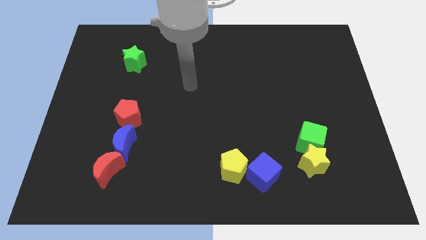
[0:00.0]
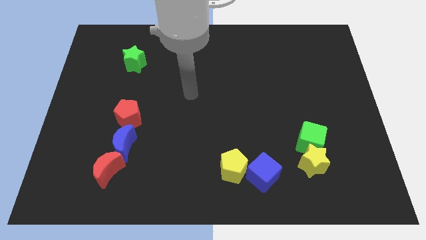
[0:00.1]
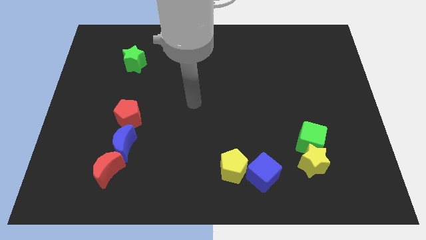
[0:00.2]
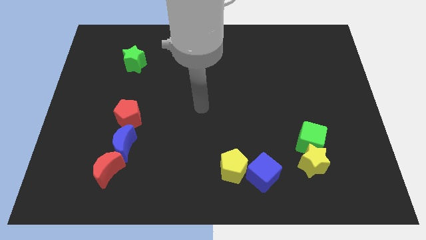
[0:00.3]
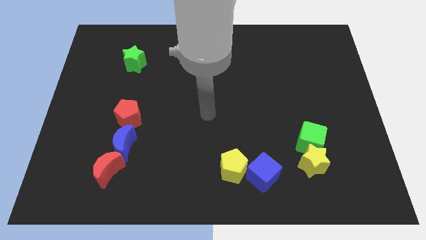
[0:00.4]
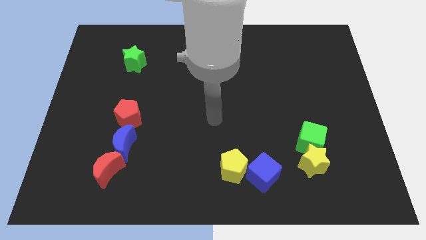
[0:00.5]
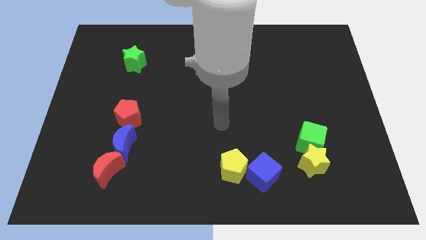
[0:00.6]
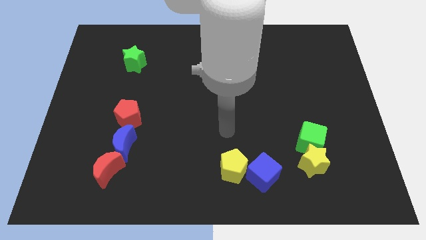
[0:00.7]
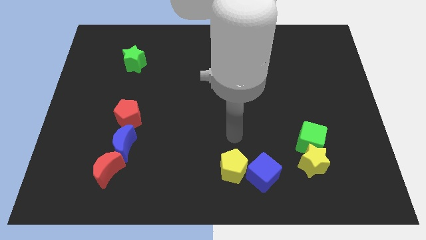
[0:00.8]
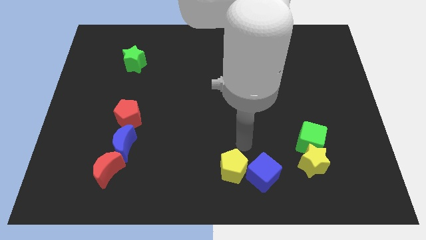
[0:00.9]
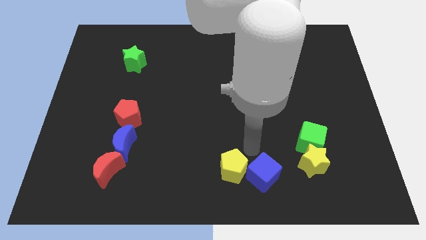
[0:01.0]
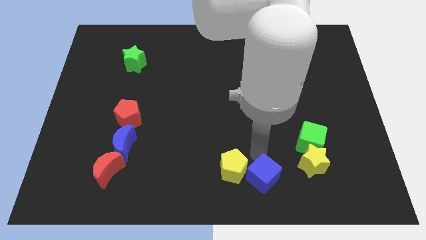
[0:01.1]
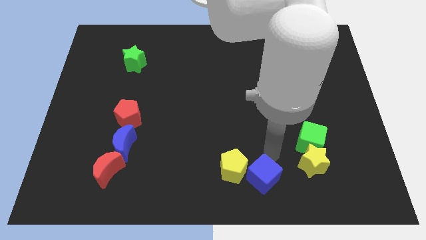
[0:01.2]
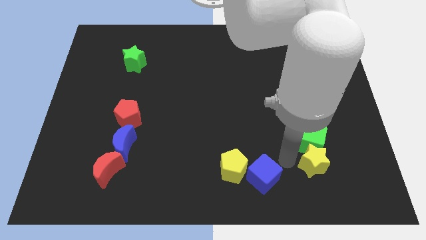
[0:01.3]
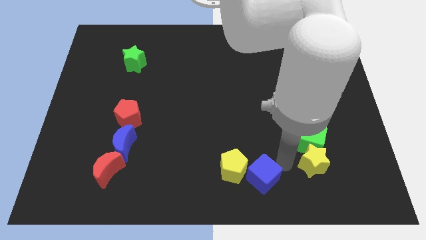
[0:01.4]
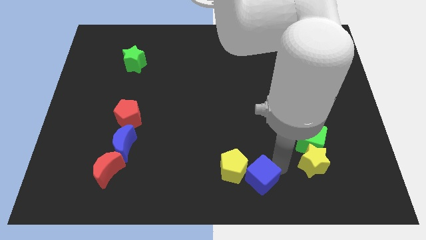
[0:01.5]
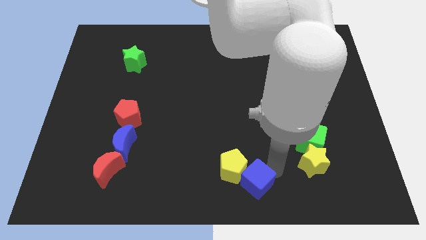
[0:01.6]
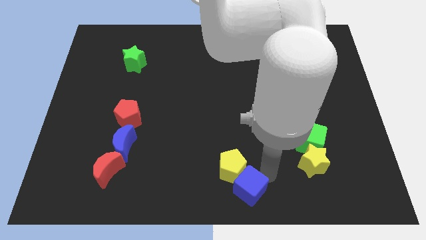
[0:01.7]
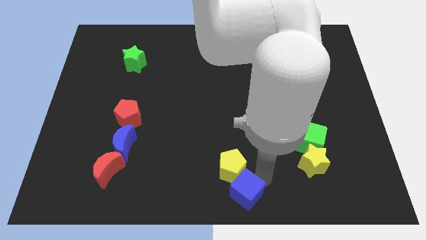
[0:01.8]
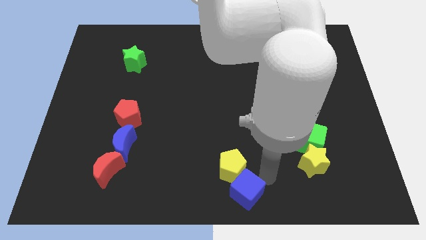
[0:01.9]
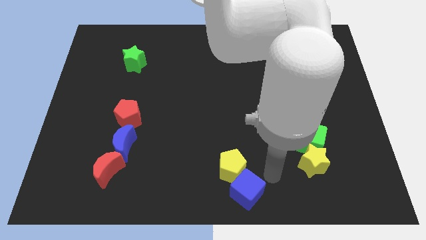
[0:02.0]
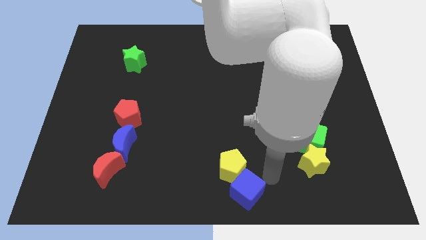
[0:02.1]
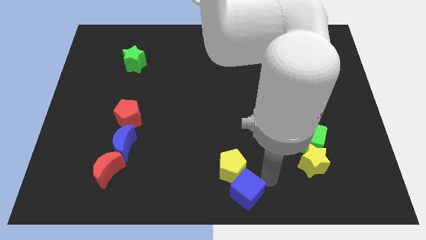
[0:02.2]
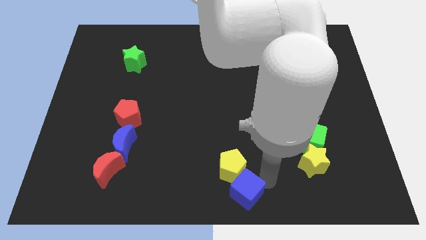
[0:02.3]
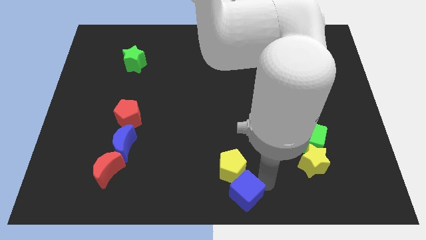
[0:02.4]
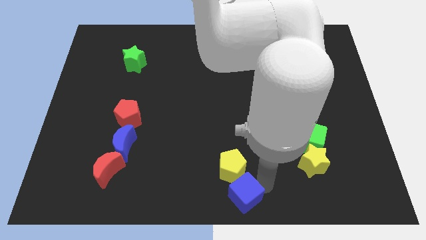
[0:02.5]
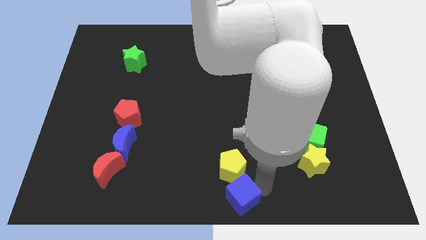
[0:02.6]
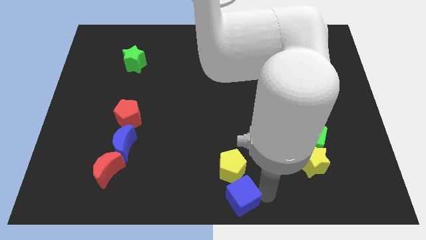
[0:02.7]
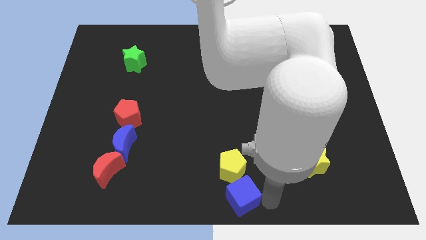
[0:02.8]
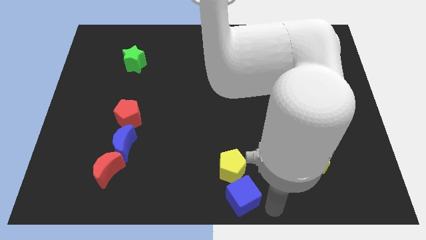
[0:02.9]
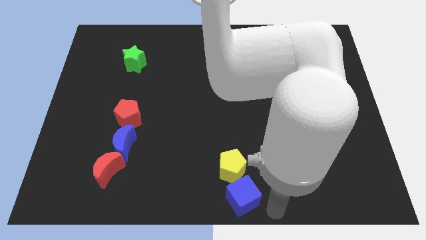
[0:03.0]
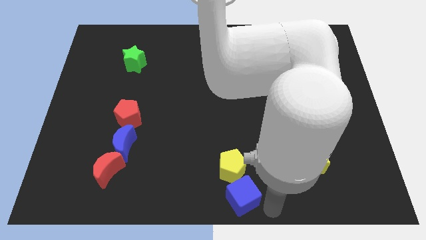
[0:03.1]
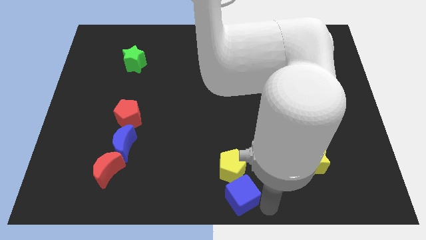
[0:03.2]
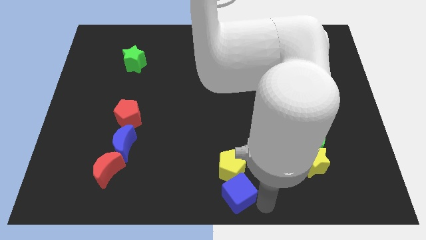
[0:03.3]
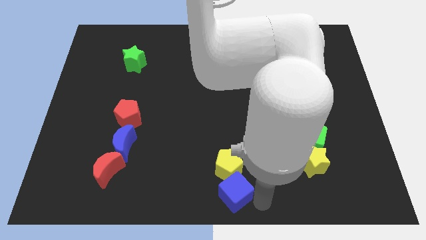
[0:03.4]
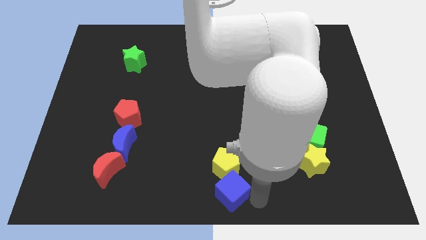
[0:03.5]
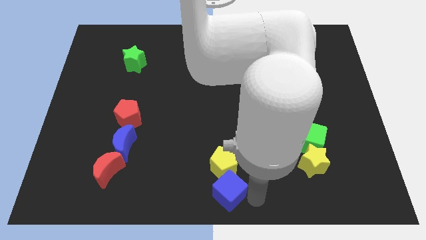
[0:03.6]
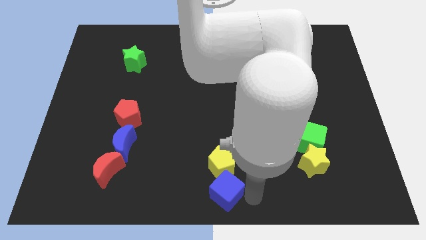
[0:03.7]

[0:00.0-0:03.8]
push the blue cube left somewhat

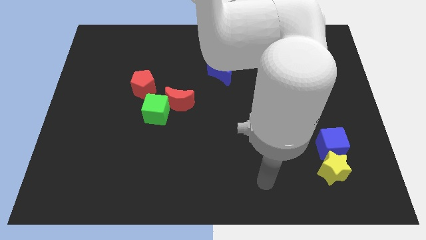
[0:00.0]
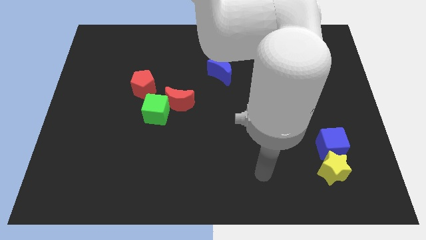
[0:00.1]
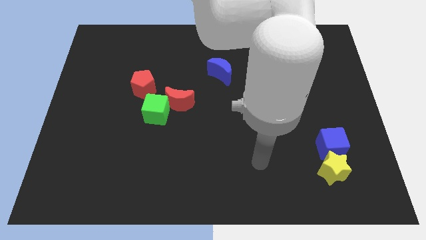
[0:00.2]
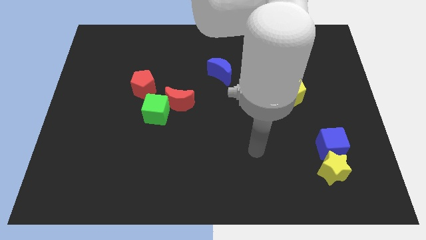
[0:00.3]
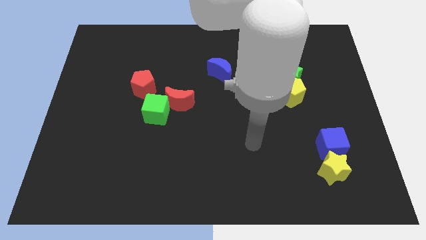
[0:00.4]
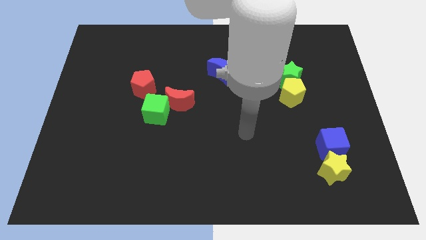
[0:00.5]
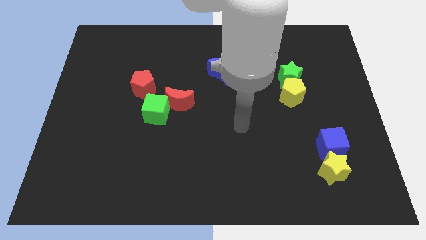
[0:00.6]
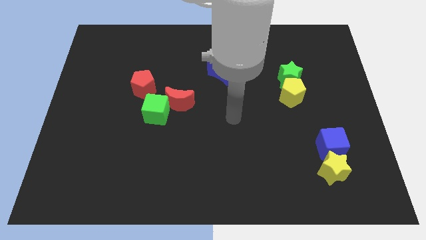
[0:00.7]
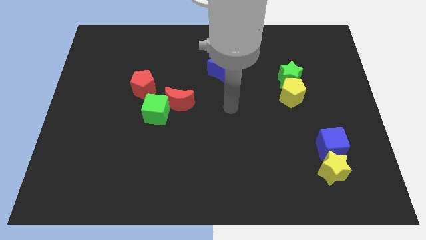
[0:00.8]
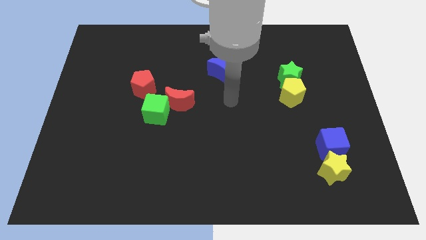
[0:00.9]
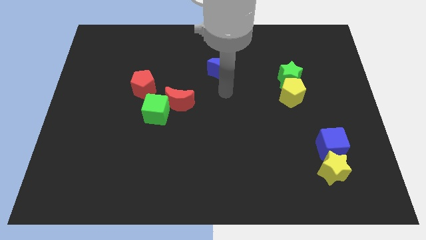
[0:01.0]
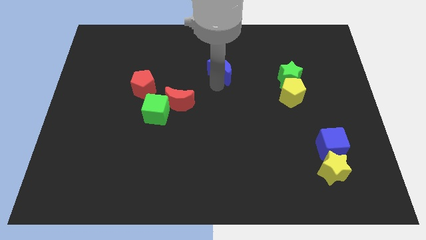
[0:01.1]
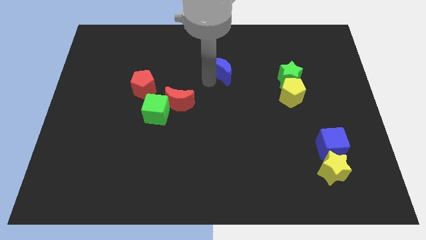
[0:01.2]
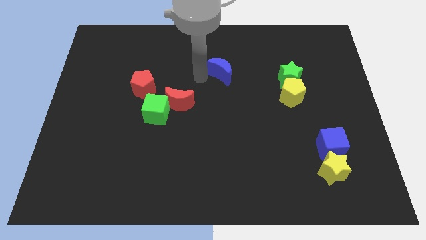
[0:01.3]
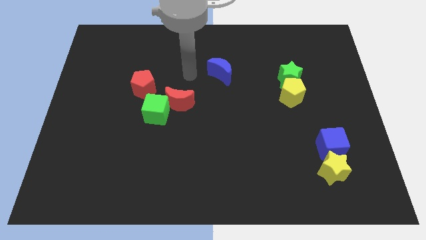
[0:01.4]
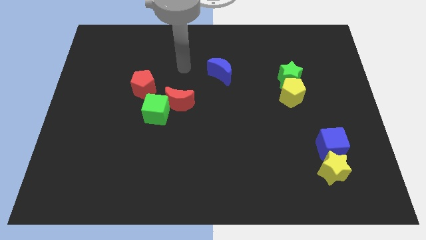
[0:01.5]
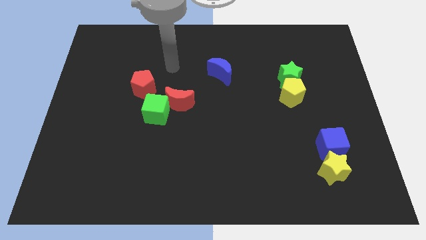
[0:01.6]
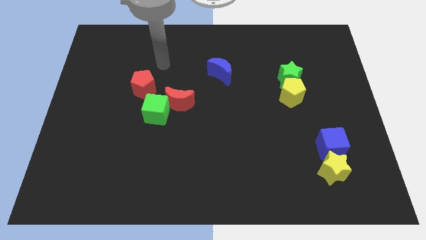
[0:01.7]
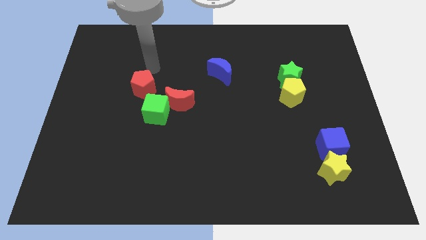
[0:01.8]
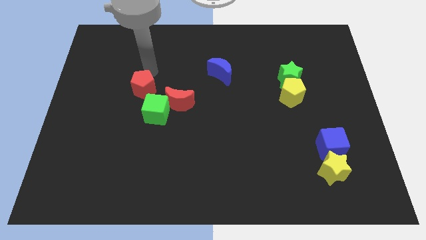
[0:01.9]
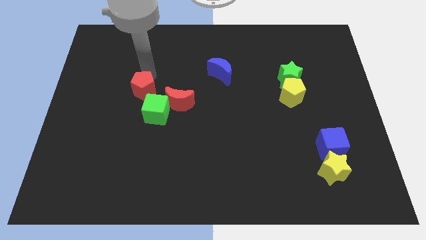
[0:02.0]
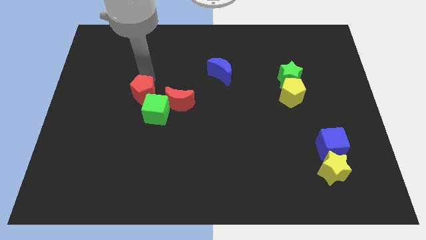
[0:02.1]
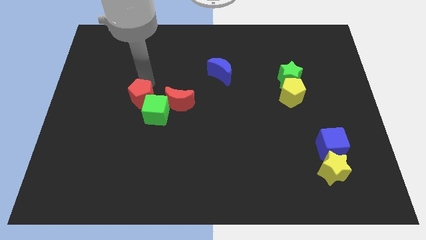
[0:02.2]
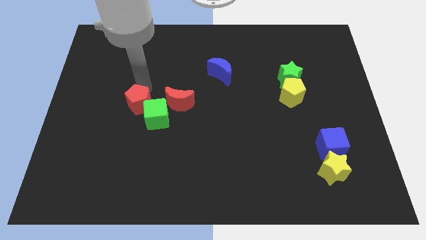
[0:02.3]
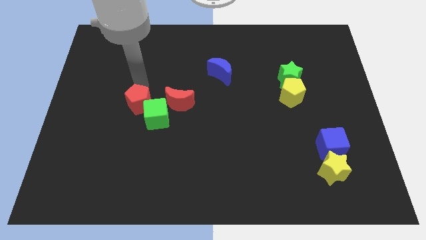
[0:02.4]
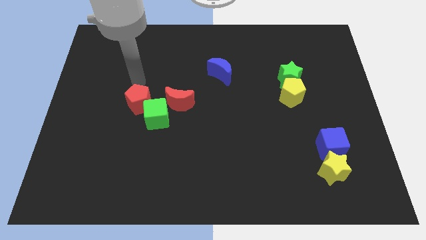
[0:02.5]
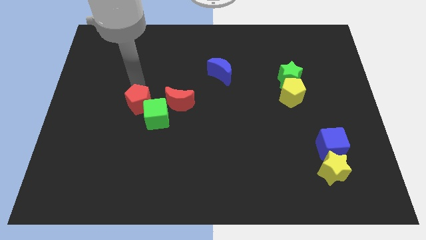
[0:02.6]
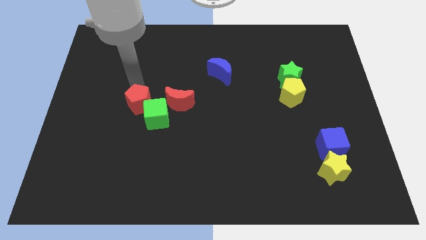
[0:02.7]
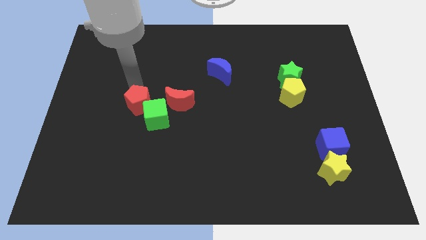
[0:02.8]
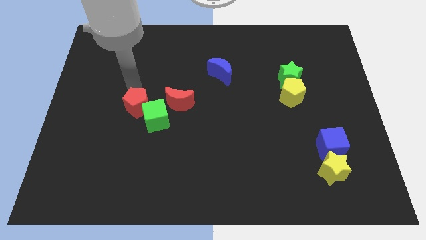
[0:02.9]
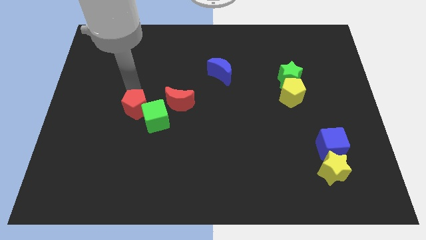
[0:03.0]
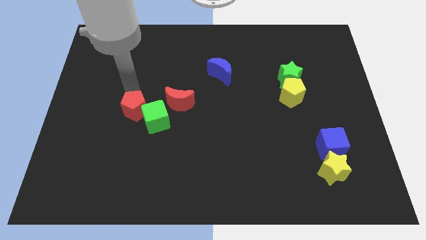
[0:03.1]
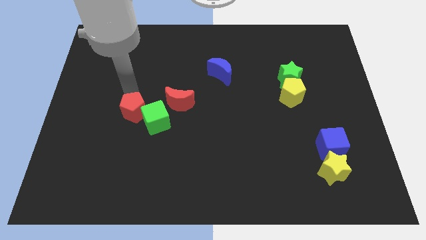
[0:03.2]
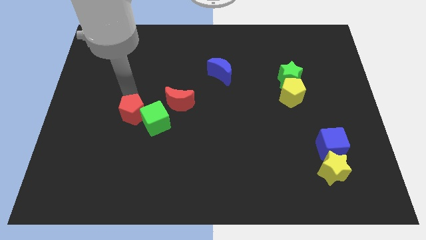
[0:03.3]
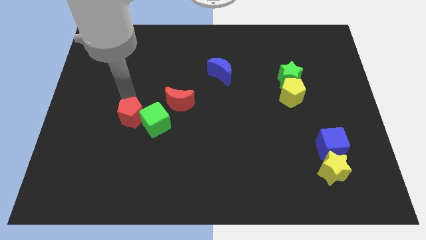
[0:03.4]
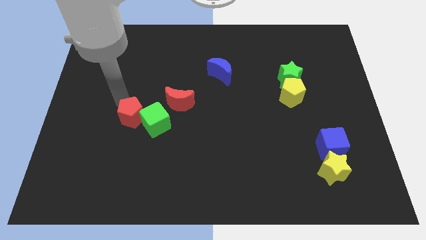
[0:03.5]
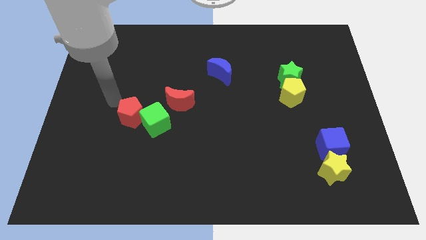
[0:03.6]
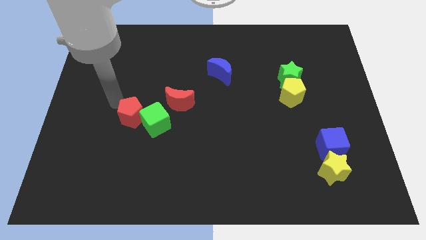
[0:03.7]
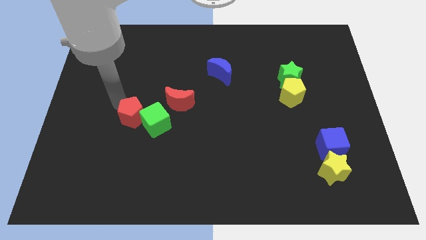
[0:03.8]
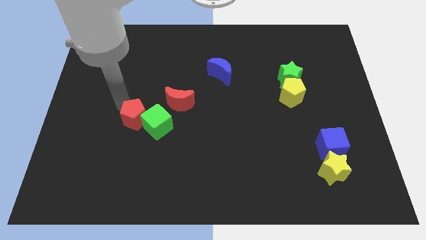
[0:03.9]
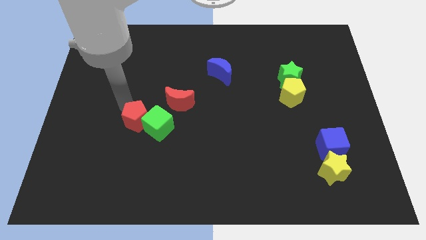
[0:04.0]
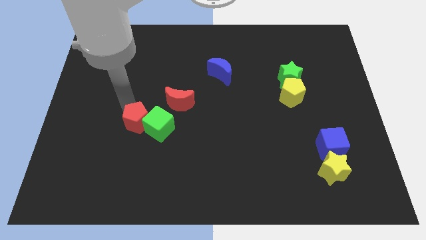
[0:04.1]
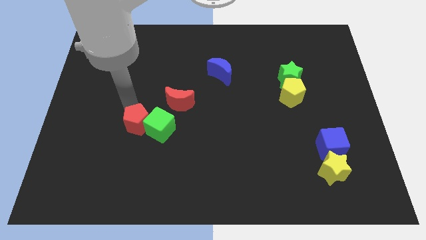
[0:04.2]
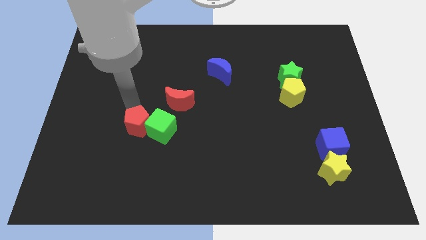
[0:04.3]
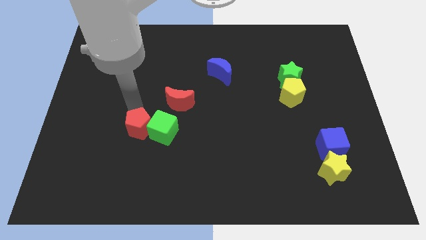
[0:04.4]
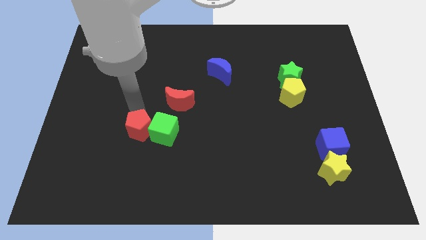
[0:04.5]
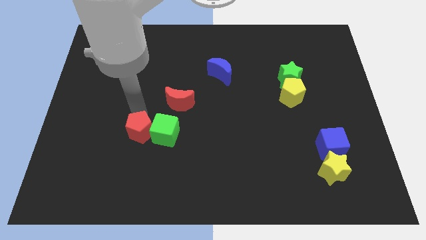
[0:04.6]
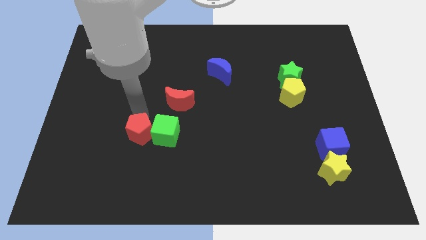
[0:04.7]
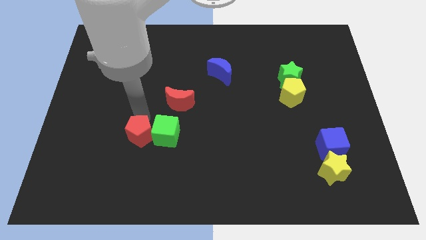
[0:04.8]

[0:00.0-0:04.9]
move the red pentagon downwards and then right slightly
